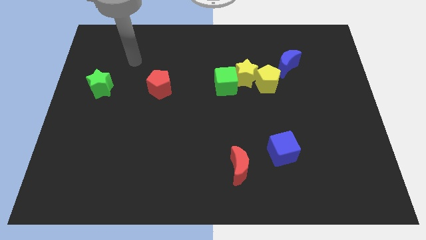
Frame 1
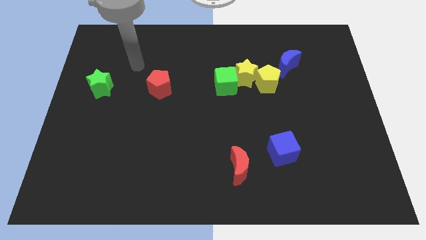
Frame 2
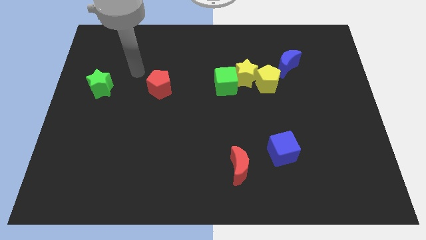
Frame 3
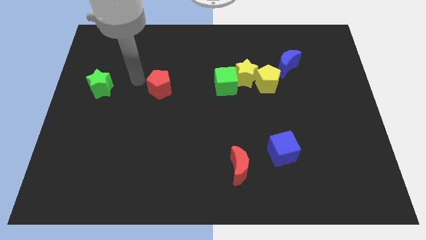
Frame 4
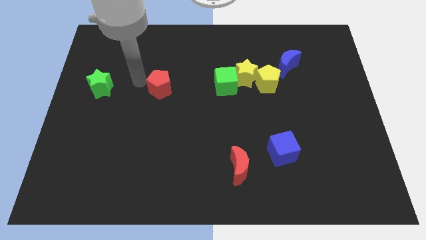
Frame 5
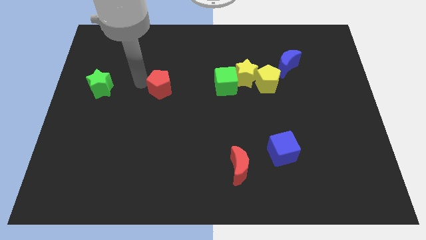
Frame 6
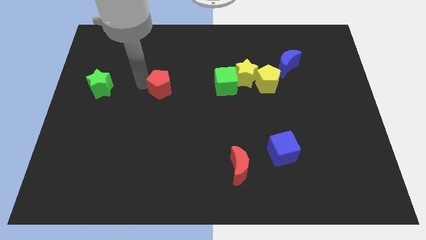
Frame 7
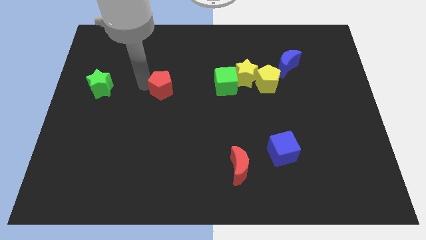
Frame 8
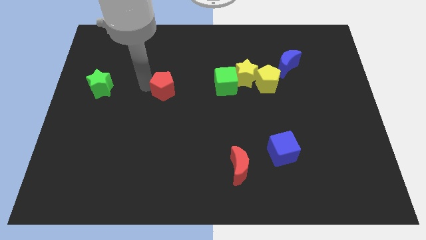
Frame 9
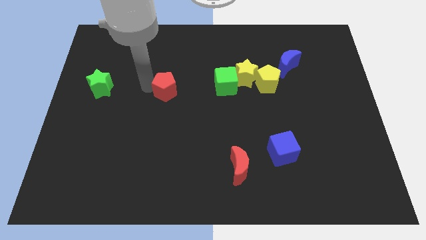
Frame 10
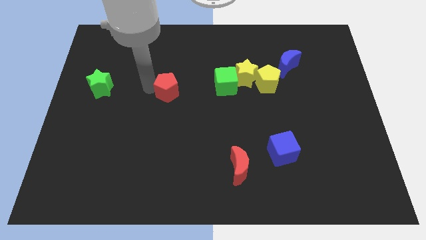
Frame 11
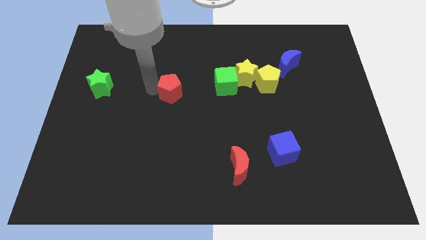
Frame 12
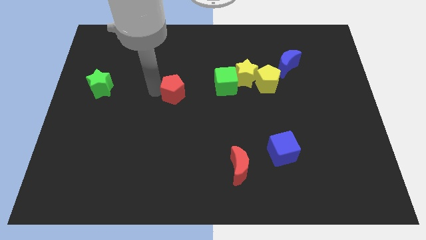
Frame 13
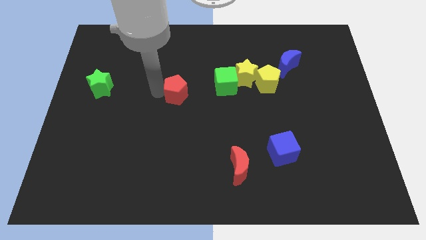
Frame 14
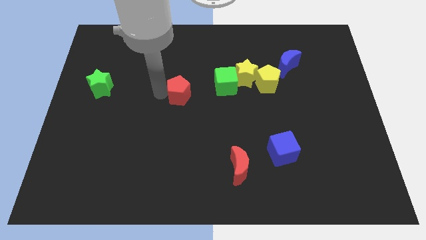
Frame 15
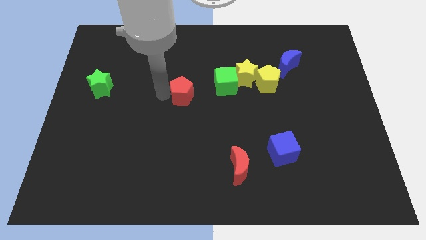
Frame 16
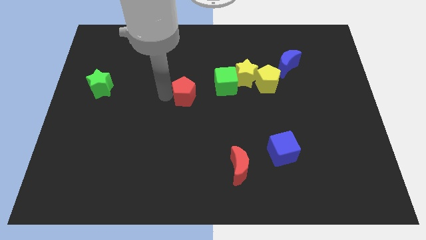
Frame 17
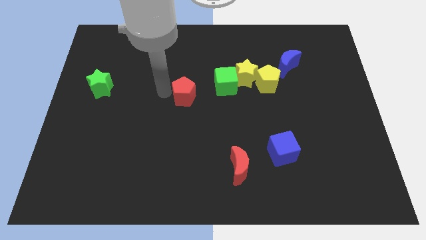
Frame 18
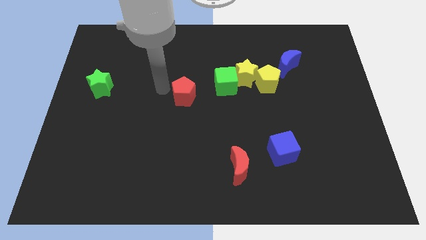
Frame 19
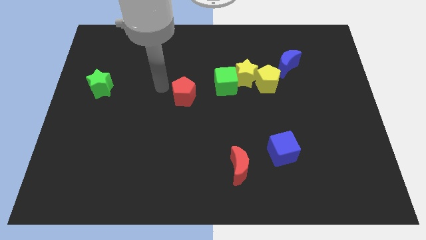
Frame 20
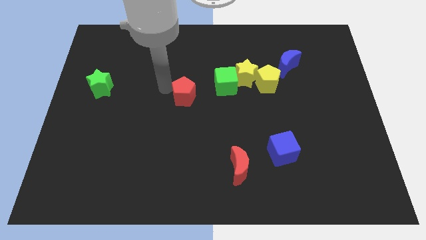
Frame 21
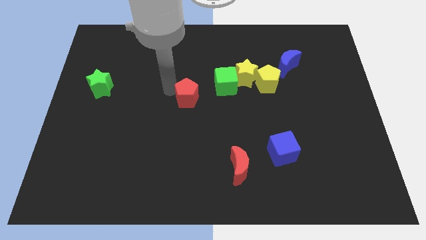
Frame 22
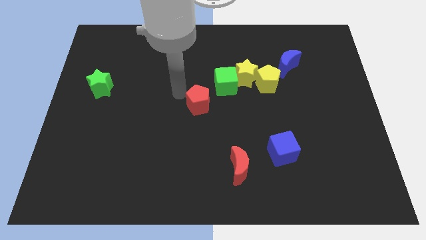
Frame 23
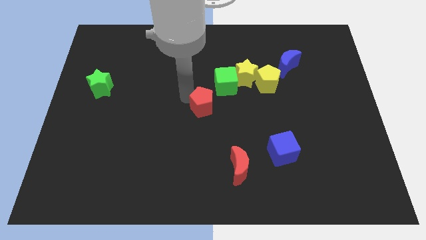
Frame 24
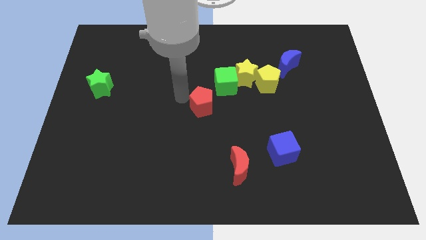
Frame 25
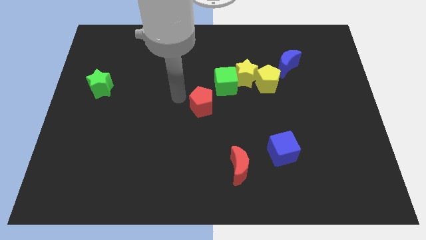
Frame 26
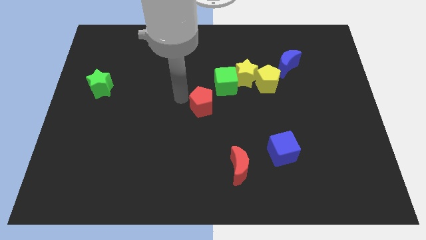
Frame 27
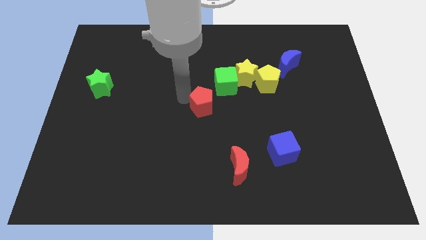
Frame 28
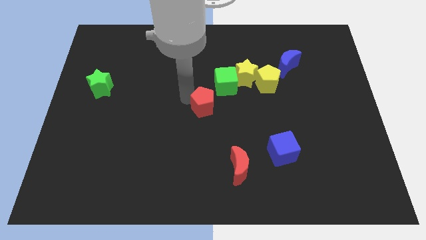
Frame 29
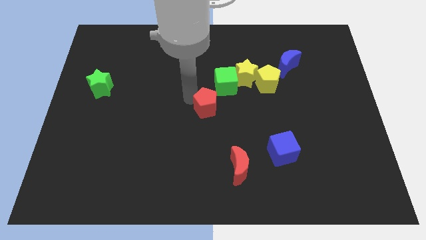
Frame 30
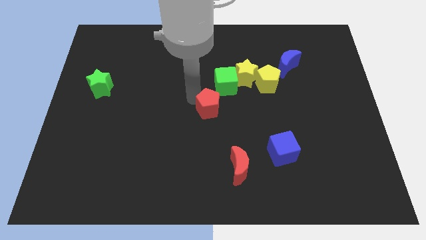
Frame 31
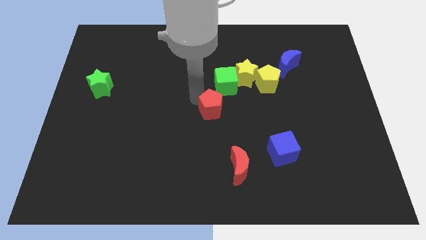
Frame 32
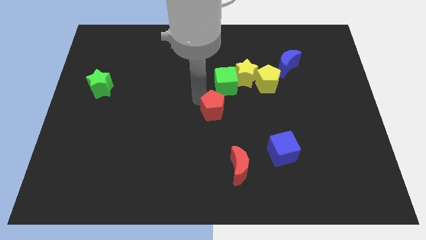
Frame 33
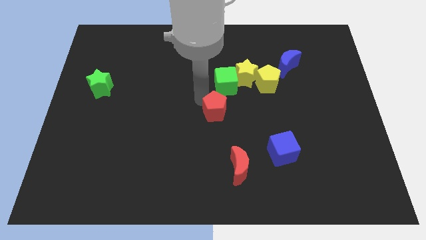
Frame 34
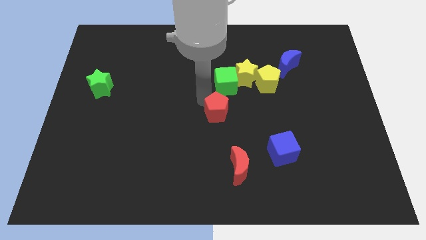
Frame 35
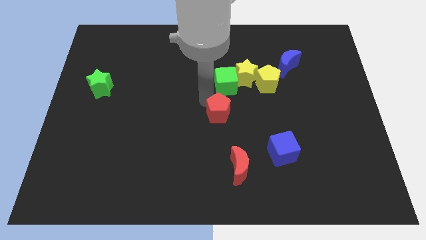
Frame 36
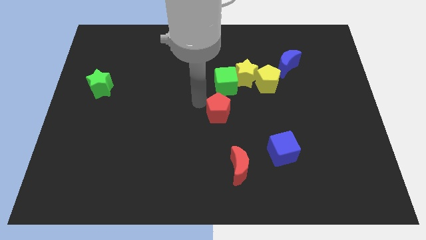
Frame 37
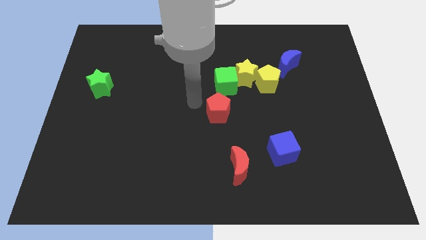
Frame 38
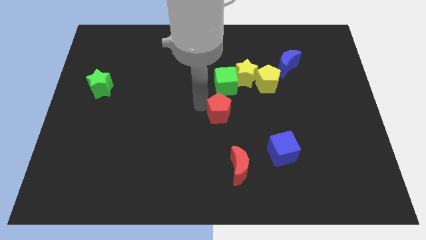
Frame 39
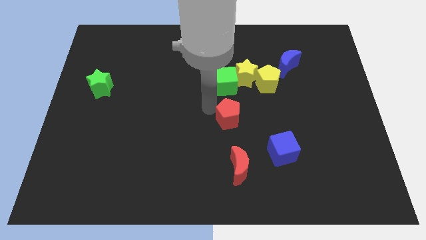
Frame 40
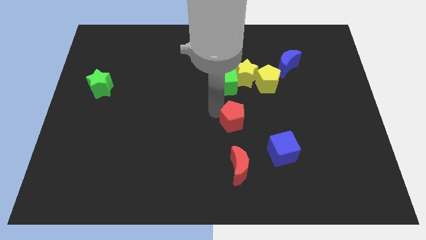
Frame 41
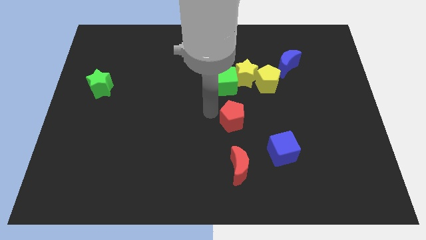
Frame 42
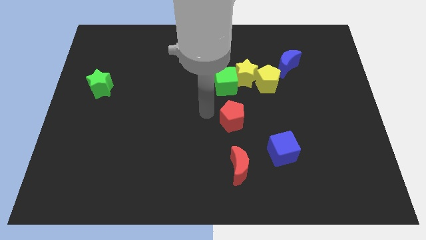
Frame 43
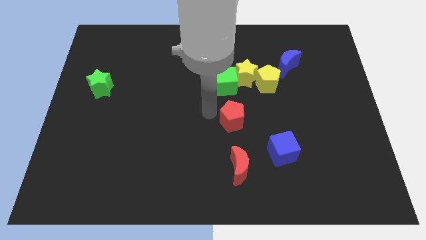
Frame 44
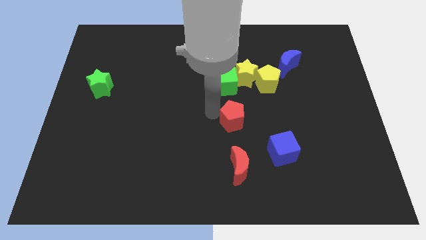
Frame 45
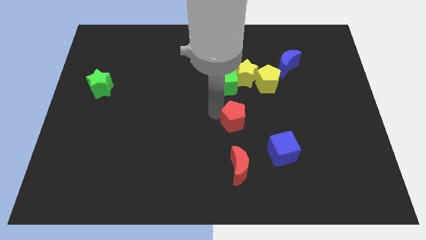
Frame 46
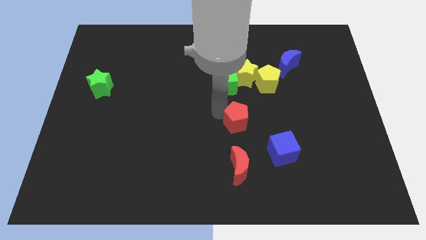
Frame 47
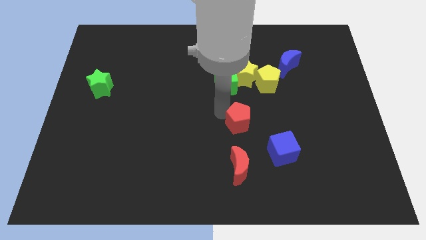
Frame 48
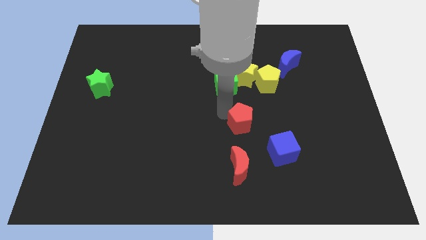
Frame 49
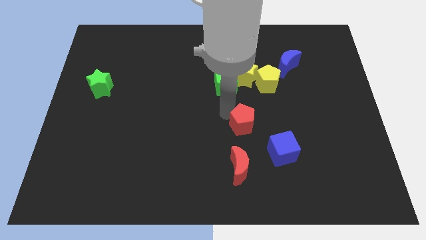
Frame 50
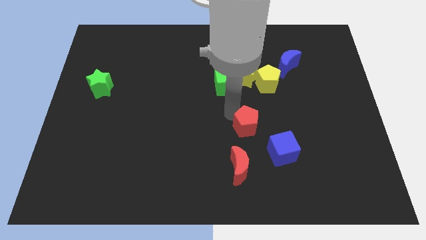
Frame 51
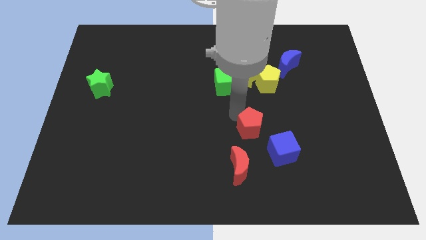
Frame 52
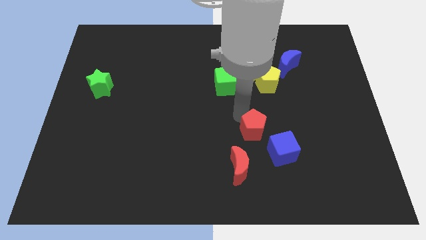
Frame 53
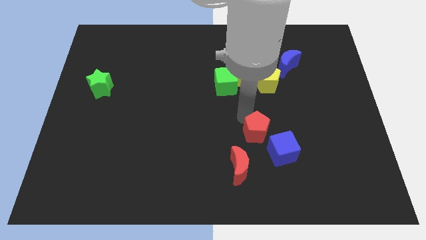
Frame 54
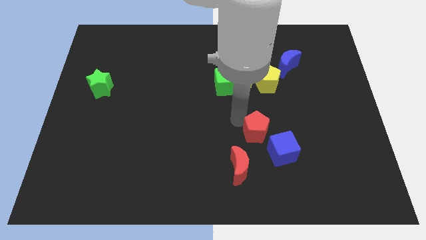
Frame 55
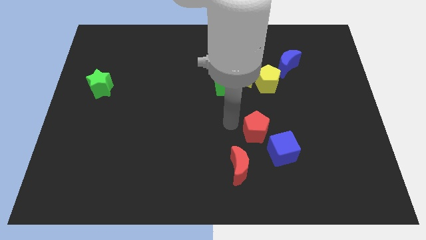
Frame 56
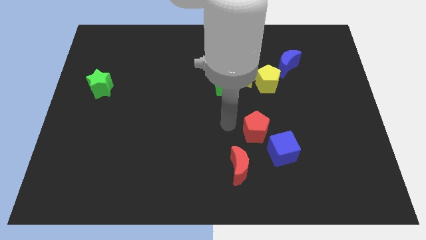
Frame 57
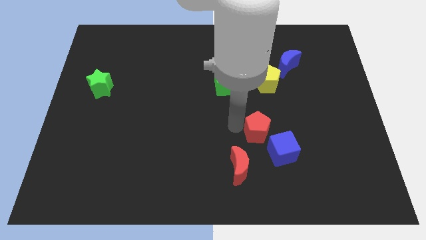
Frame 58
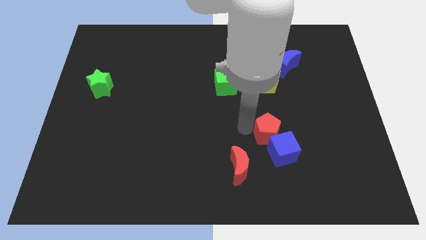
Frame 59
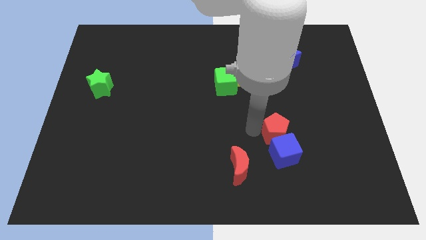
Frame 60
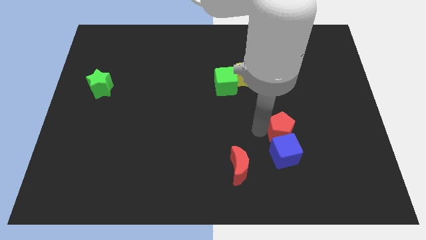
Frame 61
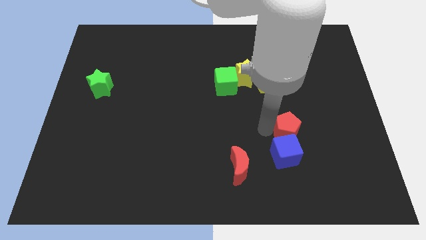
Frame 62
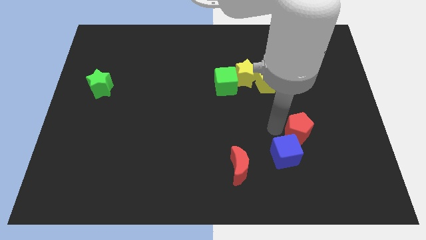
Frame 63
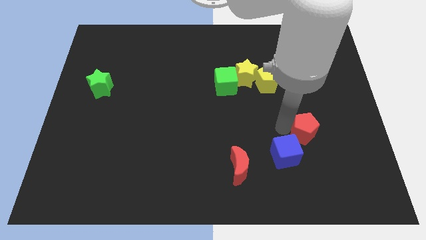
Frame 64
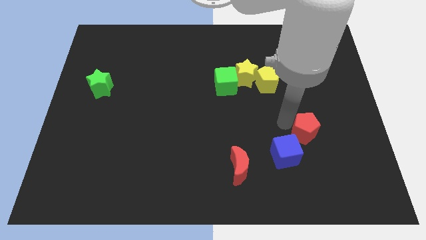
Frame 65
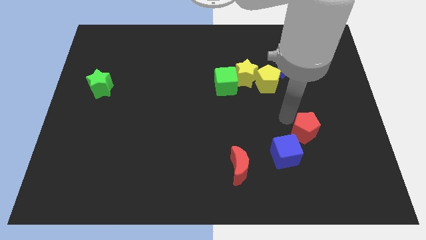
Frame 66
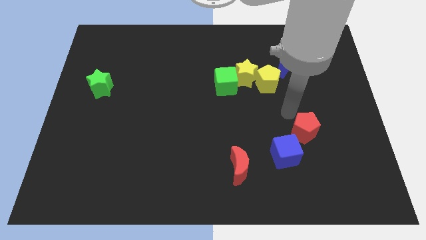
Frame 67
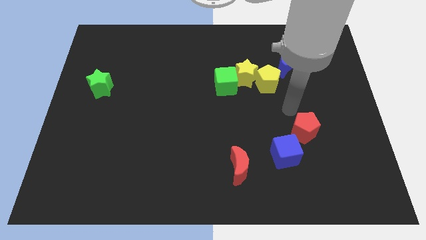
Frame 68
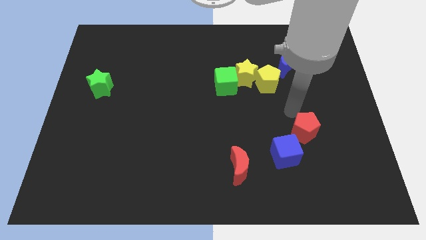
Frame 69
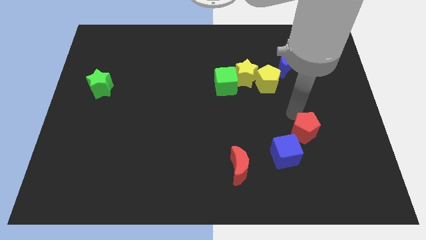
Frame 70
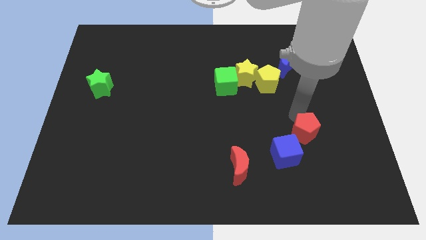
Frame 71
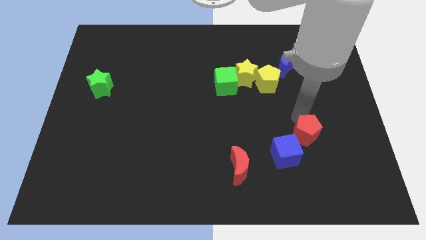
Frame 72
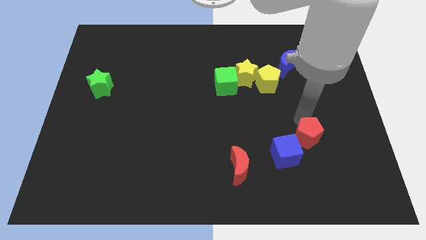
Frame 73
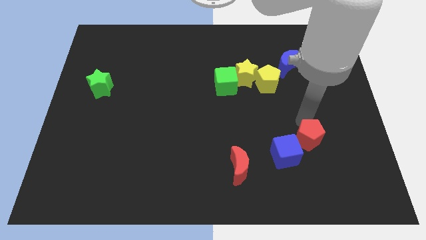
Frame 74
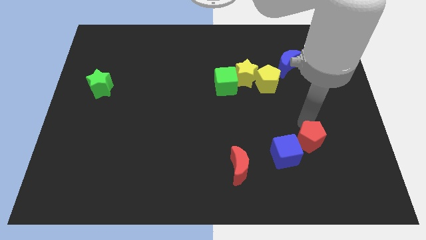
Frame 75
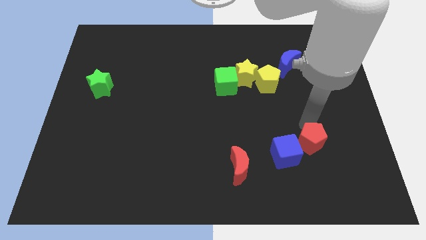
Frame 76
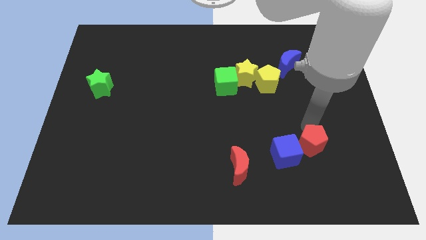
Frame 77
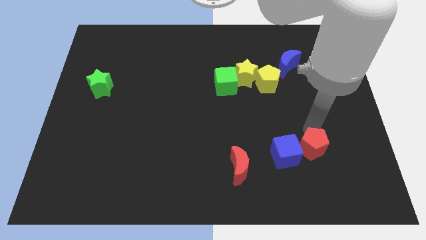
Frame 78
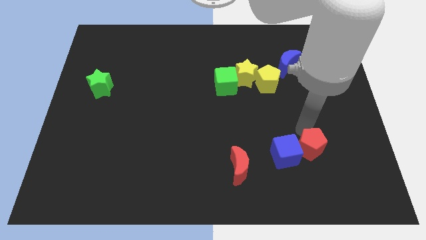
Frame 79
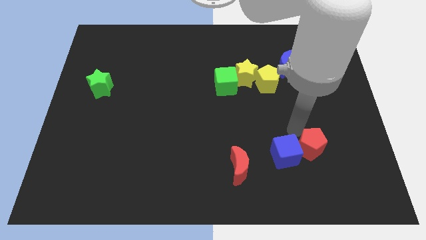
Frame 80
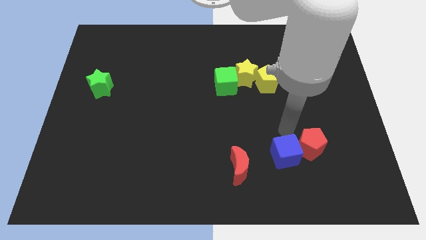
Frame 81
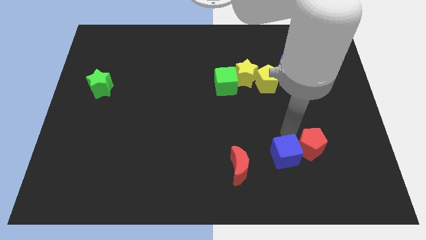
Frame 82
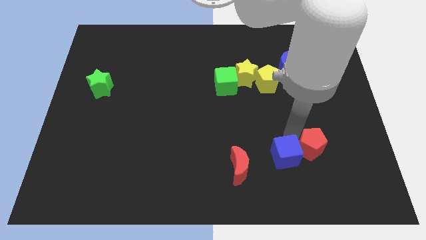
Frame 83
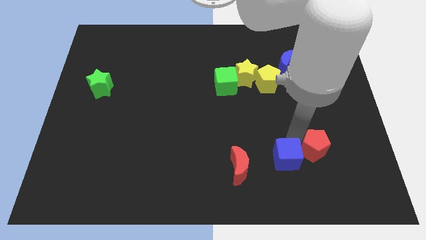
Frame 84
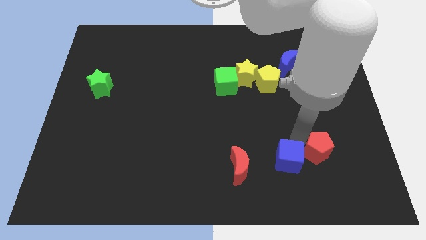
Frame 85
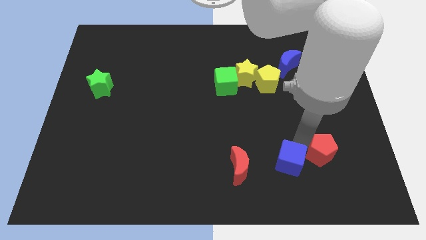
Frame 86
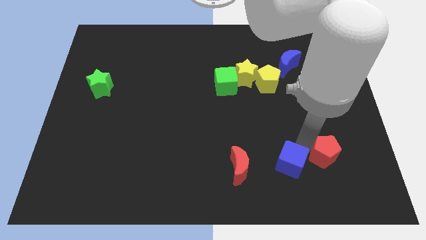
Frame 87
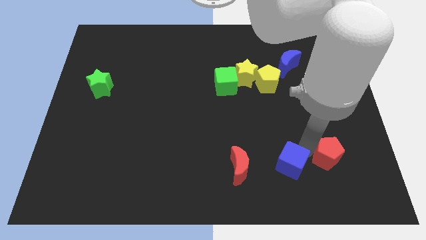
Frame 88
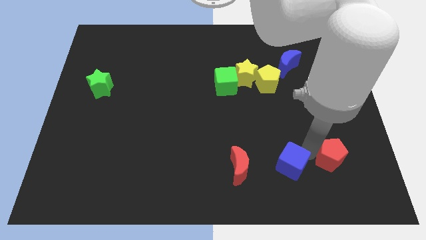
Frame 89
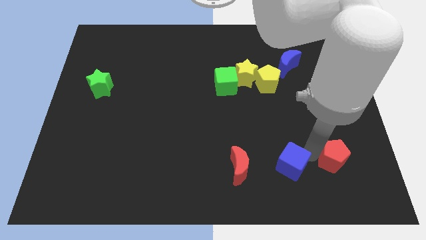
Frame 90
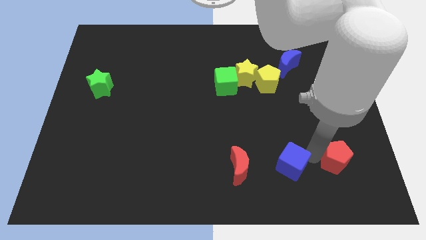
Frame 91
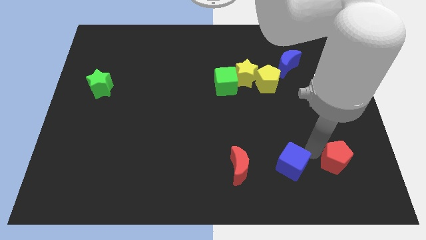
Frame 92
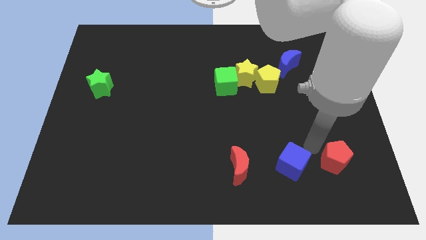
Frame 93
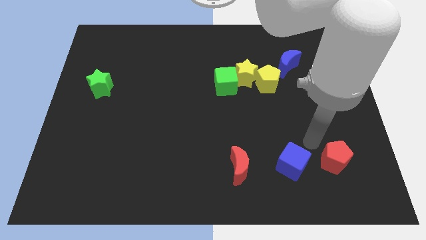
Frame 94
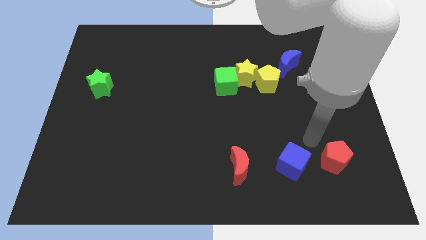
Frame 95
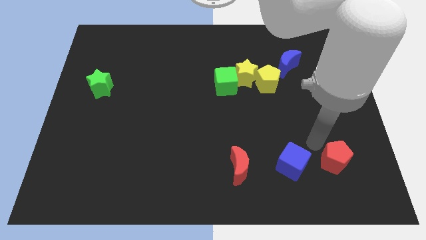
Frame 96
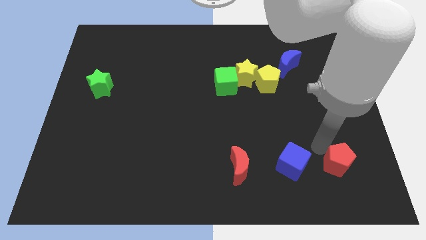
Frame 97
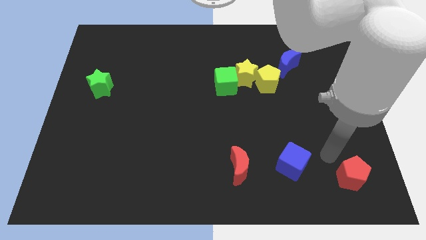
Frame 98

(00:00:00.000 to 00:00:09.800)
push the red pentagon to the bottom right corner
